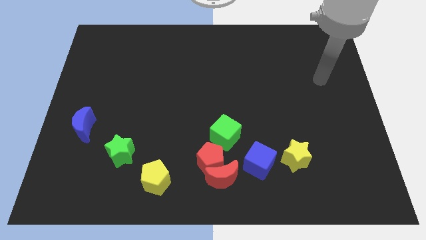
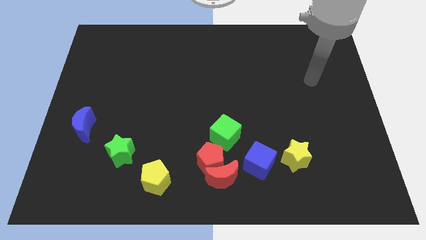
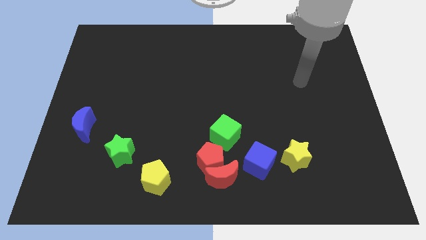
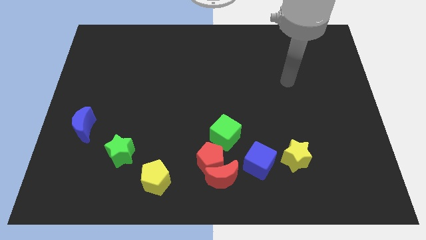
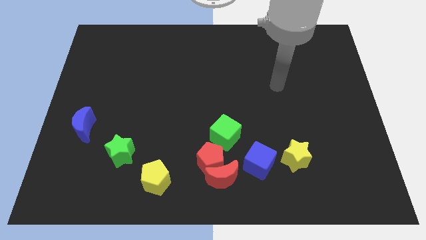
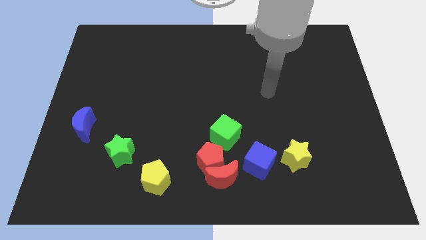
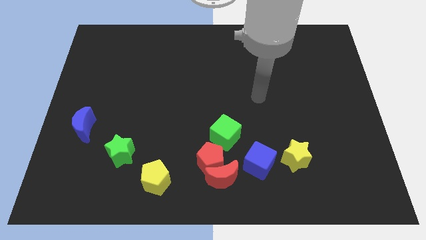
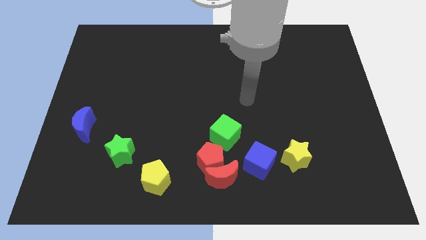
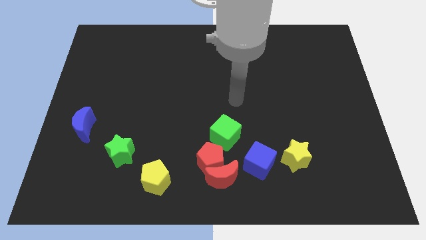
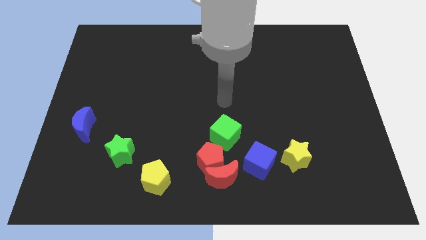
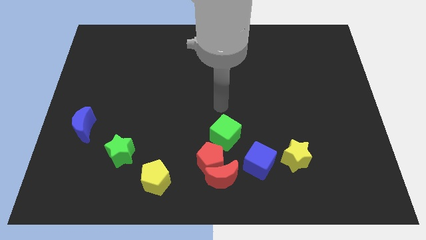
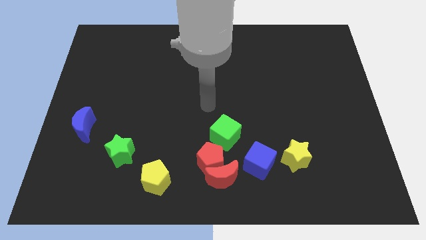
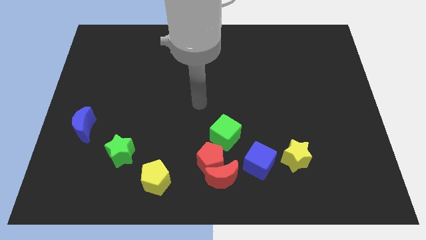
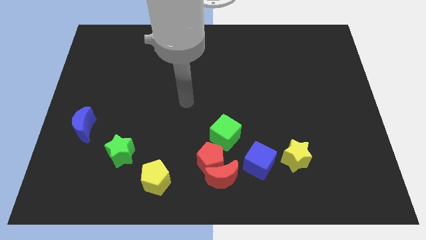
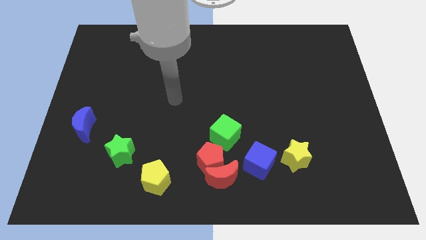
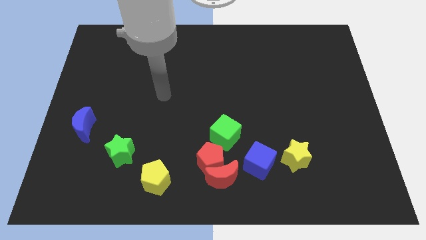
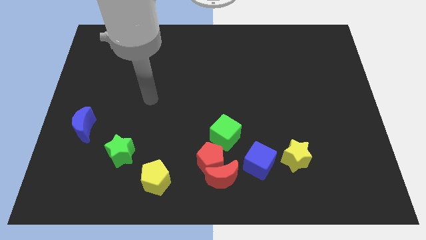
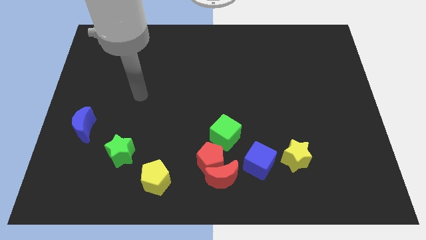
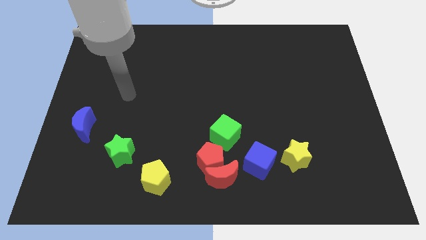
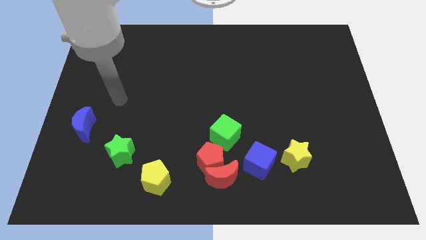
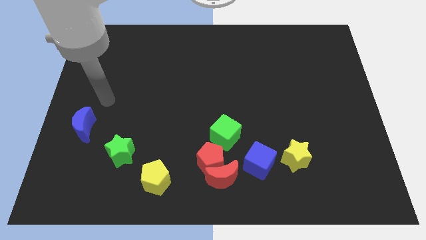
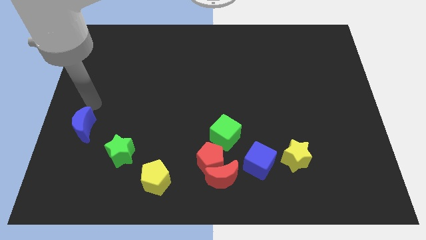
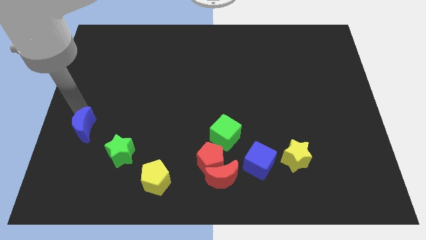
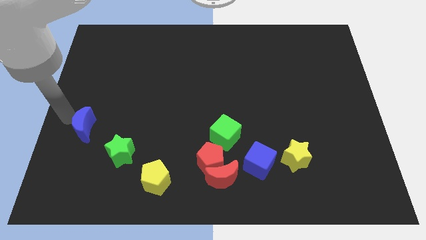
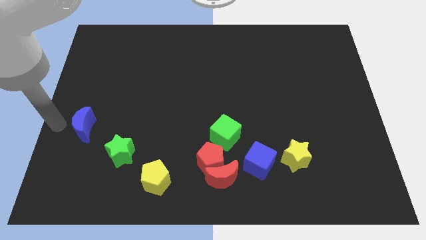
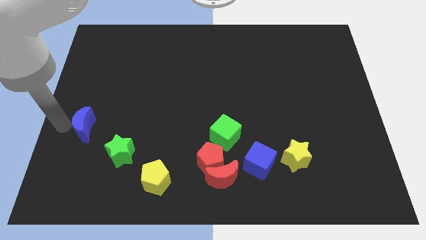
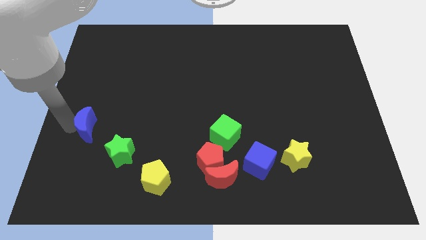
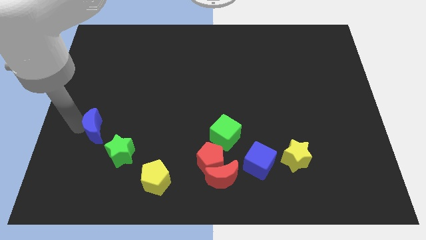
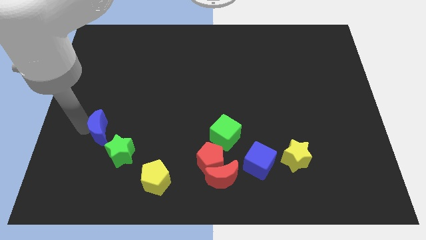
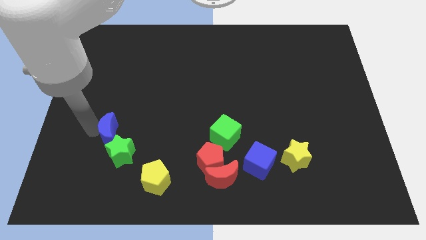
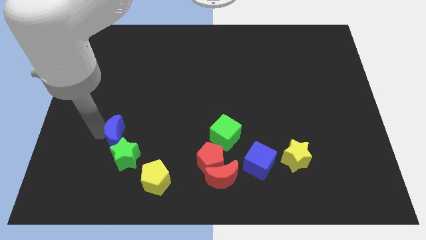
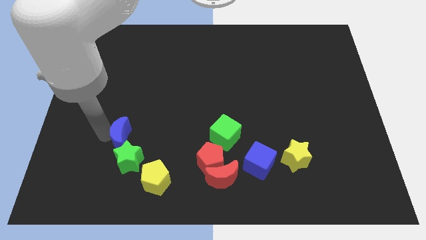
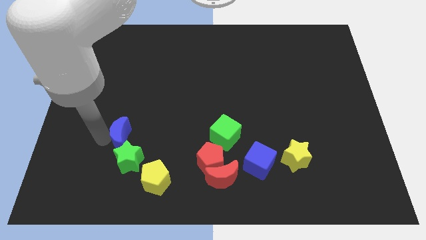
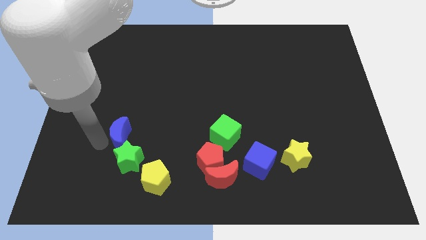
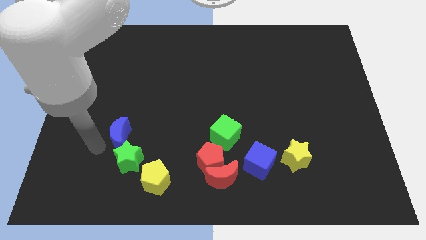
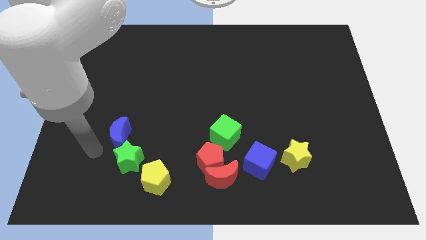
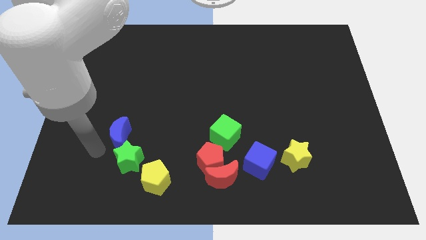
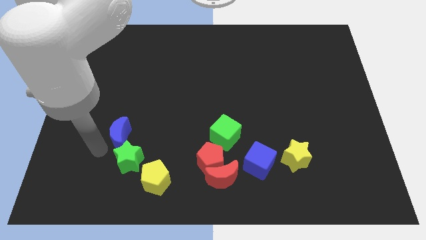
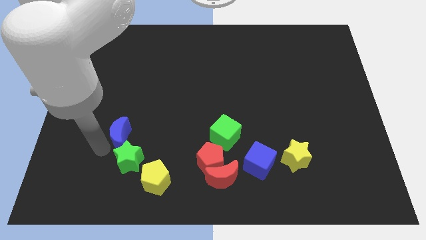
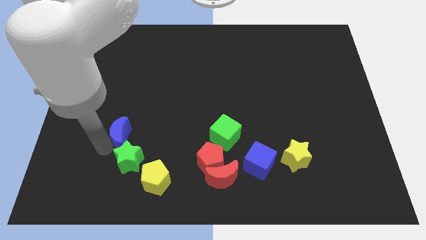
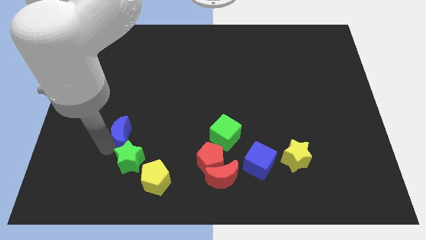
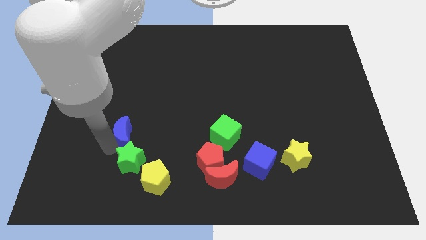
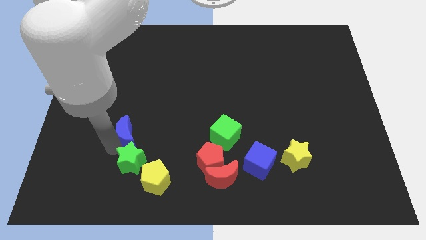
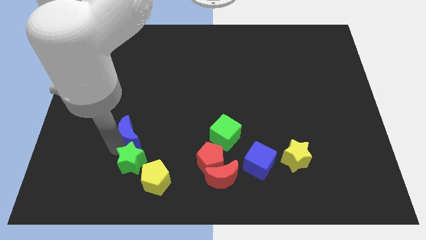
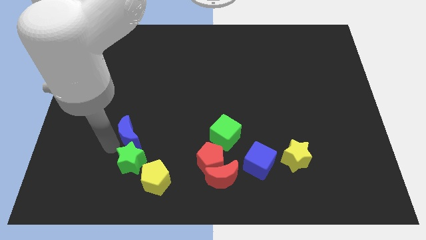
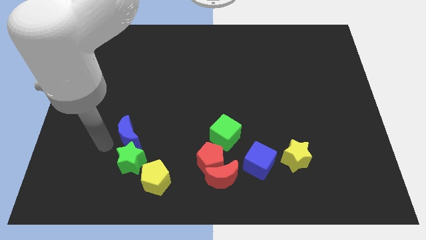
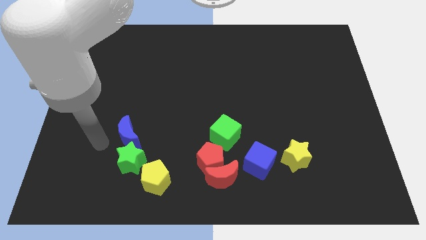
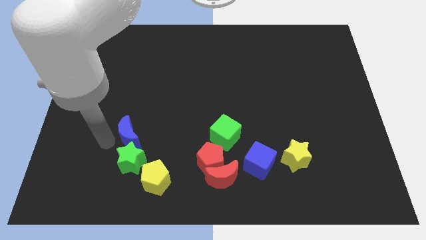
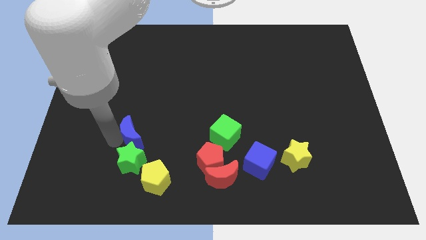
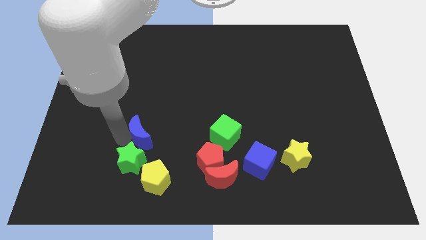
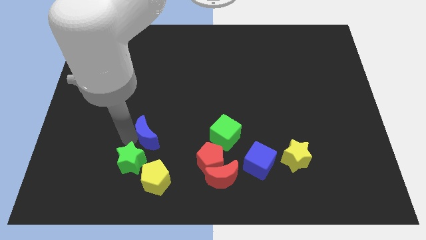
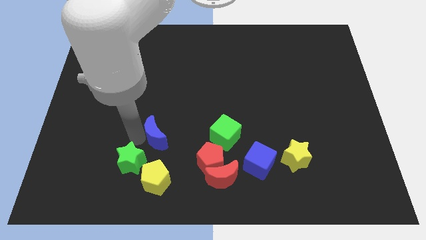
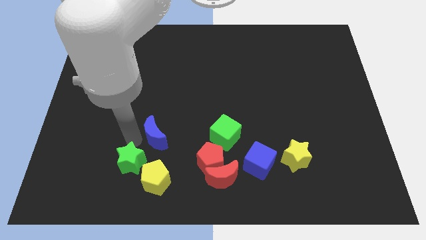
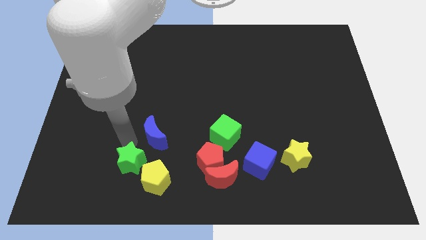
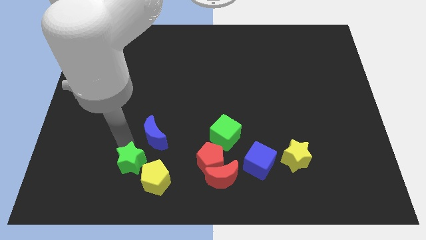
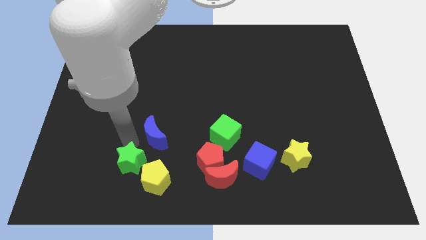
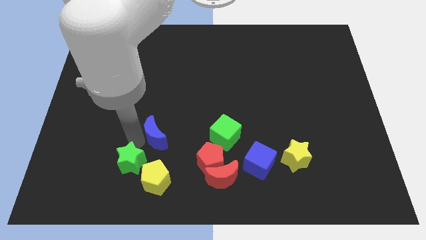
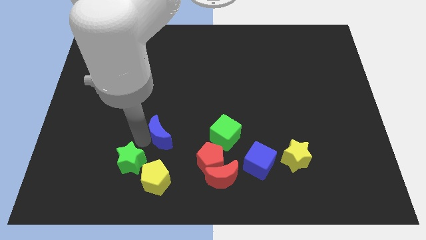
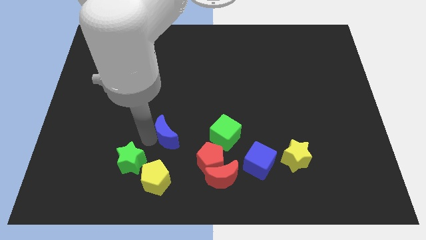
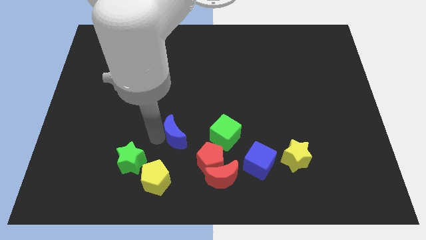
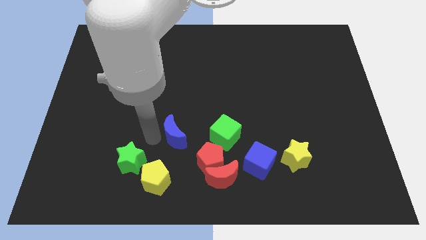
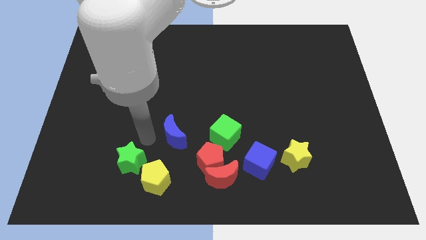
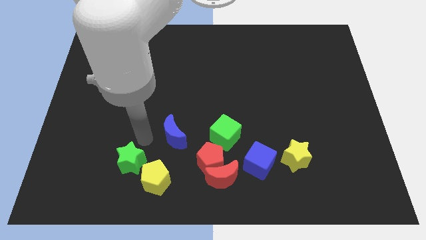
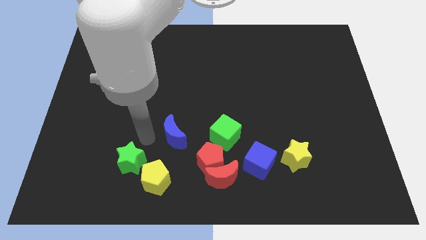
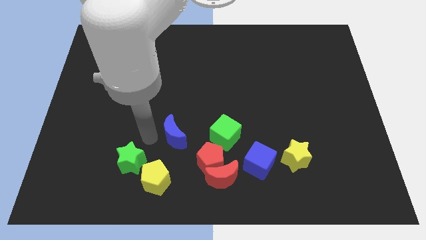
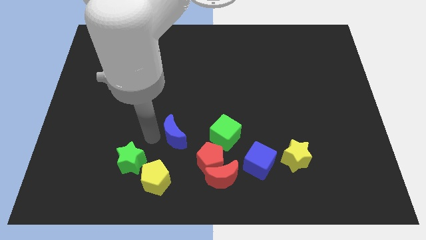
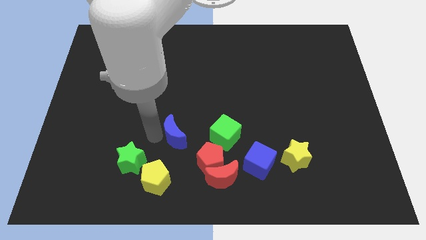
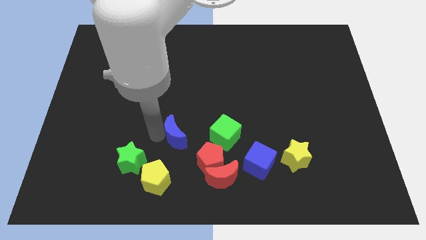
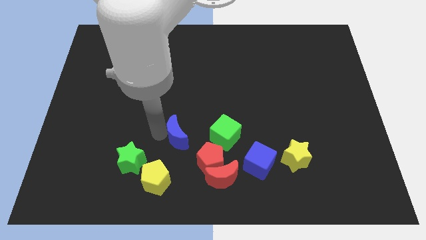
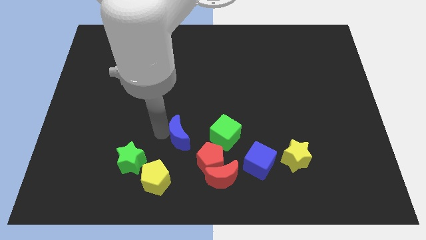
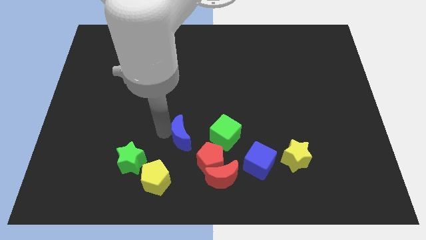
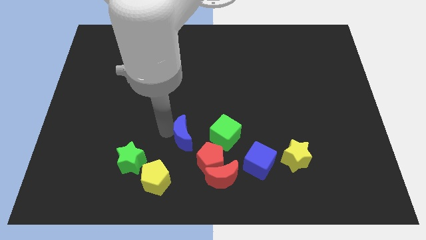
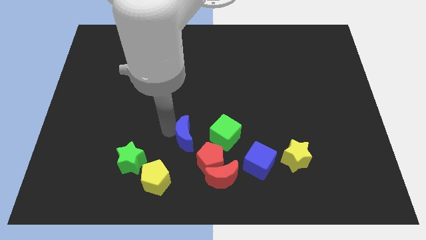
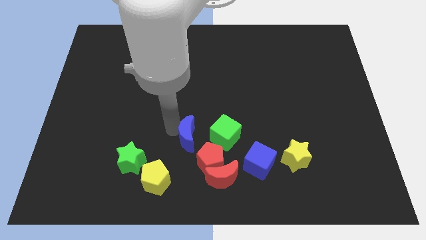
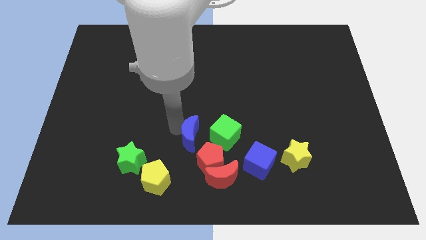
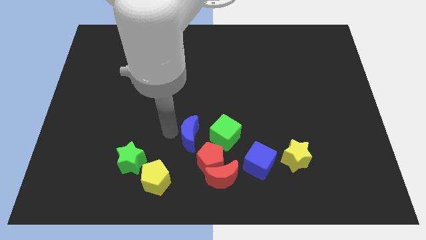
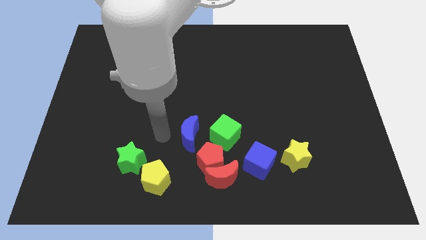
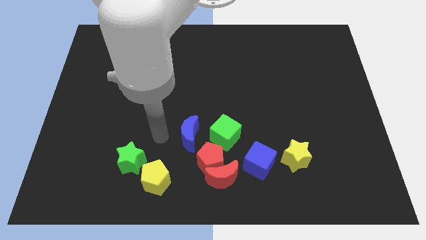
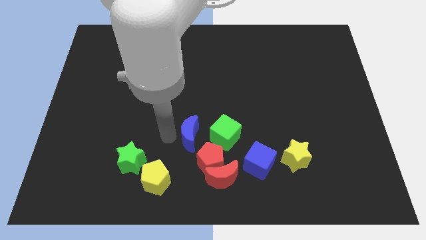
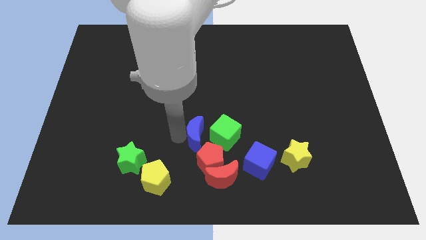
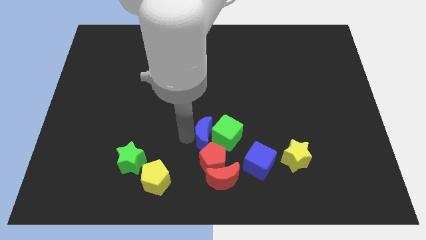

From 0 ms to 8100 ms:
push the blue moon close to the green cube
